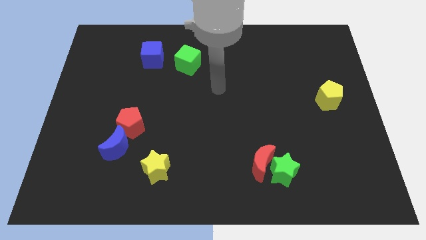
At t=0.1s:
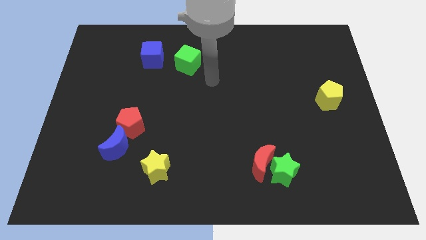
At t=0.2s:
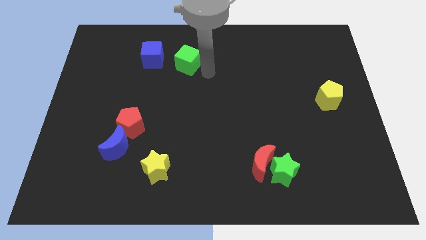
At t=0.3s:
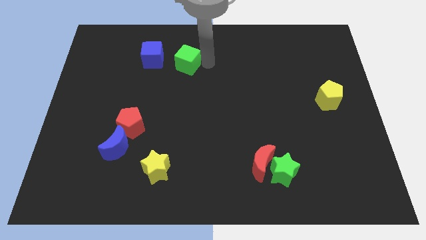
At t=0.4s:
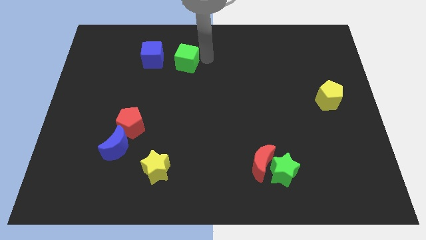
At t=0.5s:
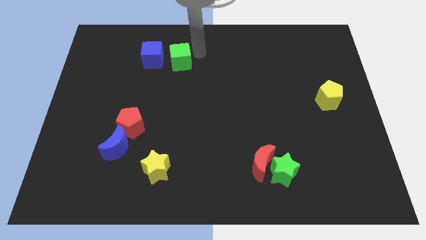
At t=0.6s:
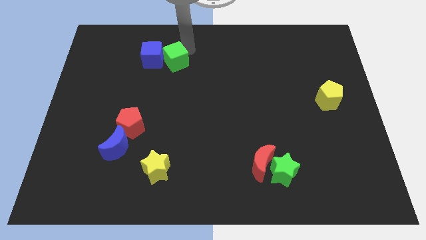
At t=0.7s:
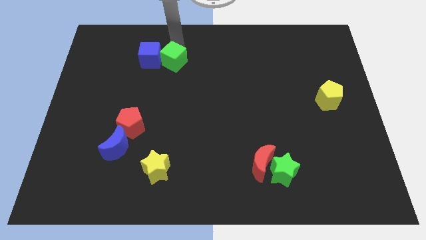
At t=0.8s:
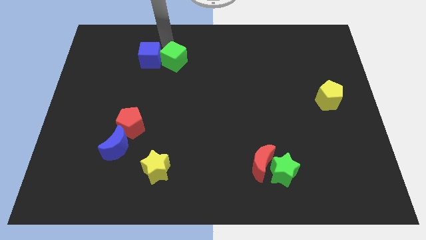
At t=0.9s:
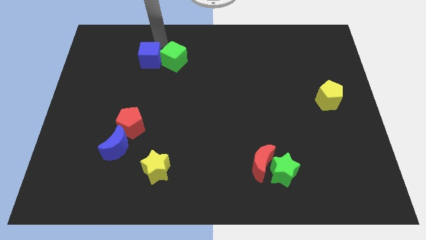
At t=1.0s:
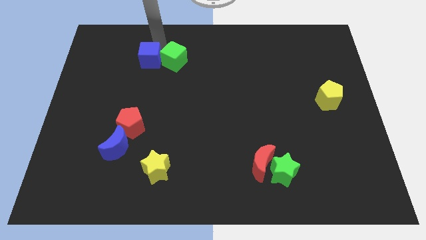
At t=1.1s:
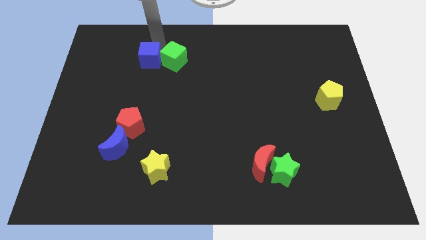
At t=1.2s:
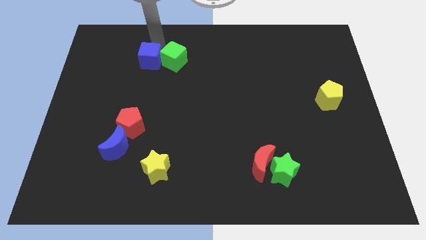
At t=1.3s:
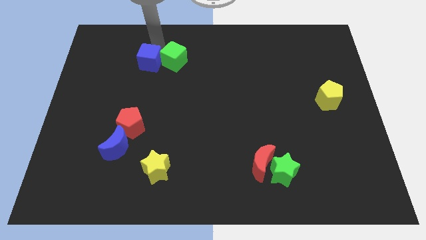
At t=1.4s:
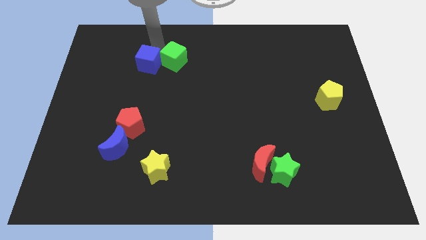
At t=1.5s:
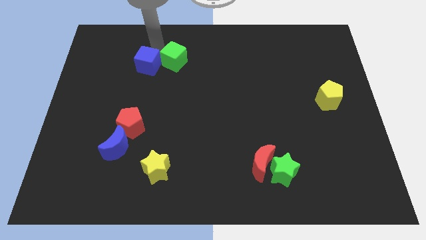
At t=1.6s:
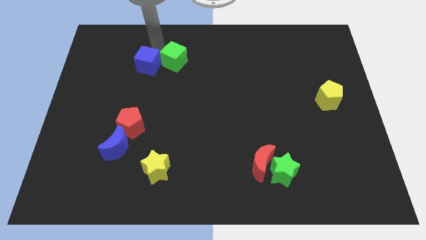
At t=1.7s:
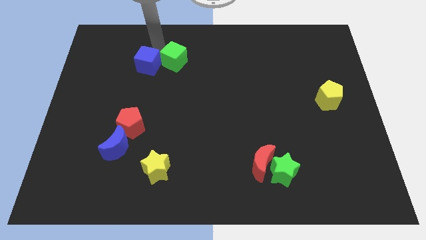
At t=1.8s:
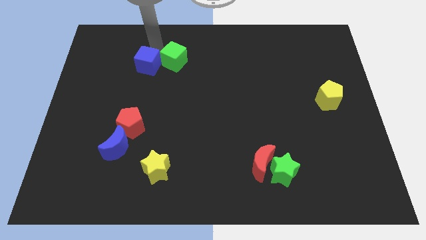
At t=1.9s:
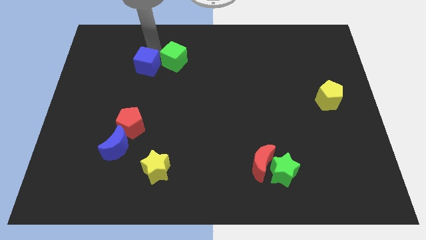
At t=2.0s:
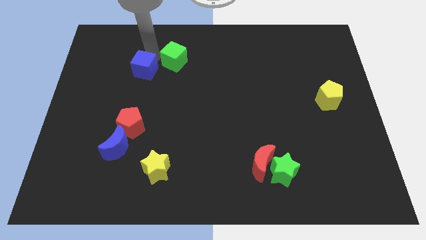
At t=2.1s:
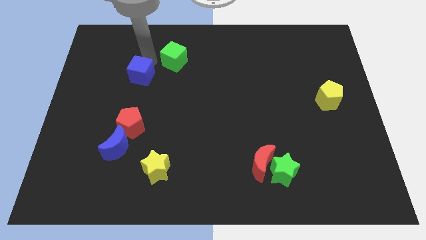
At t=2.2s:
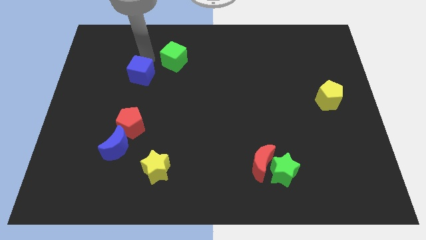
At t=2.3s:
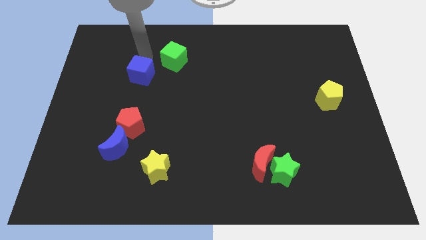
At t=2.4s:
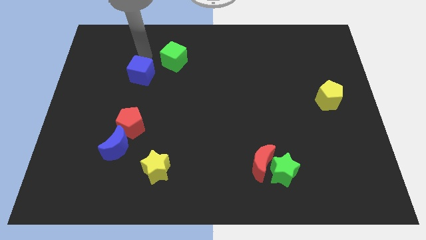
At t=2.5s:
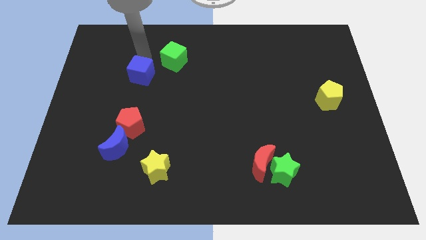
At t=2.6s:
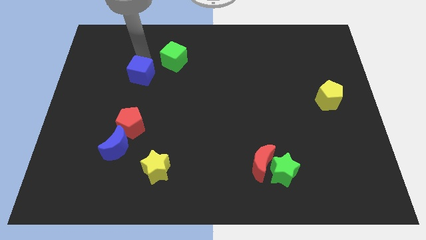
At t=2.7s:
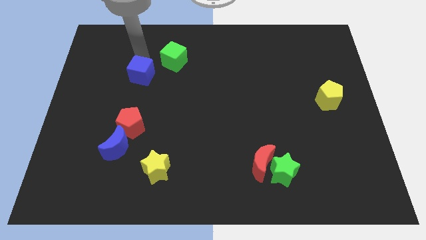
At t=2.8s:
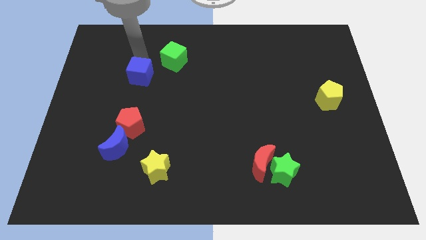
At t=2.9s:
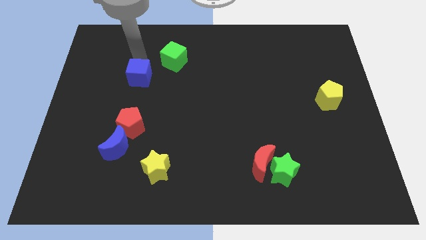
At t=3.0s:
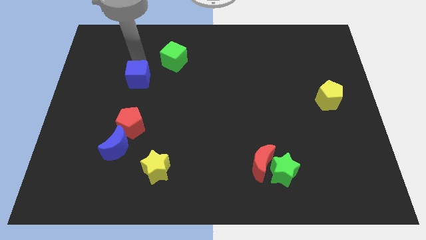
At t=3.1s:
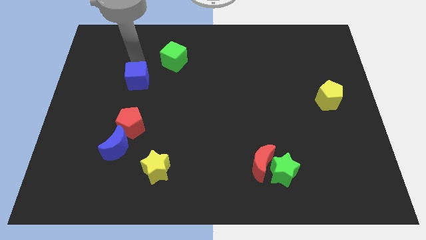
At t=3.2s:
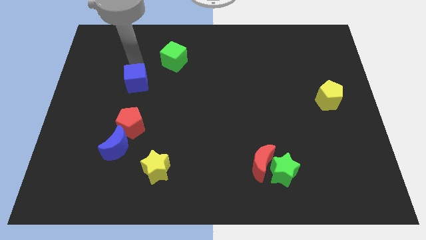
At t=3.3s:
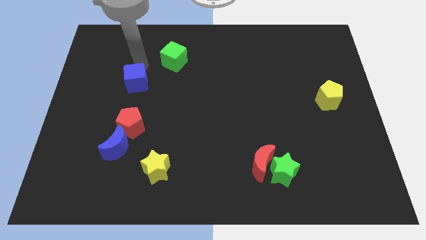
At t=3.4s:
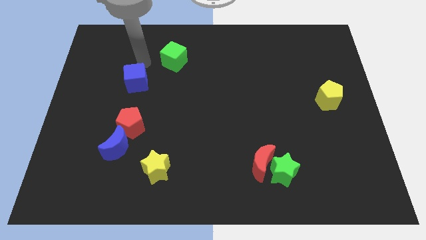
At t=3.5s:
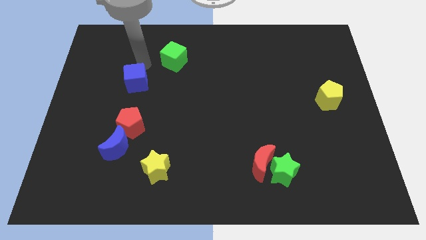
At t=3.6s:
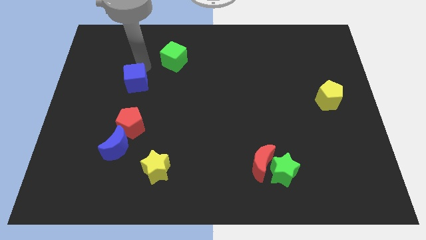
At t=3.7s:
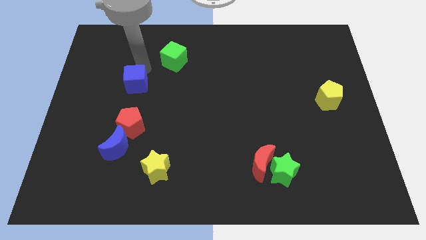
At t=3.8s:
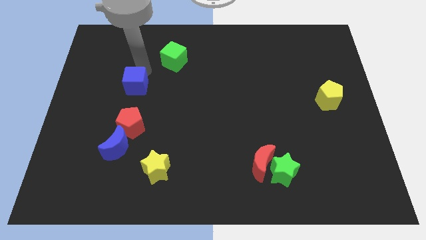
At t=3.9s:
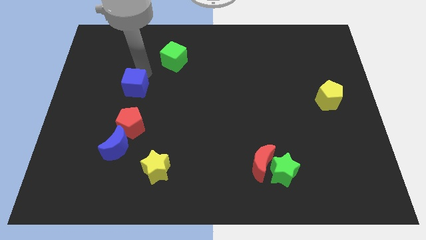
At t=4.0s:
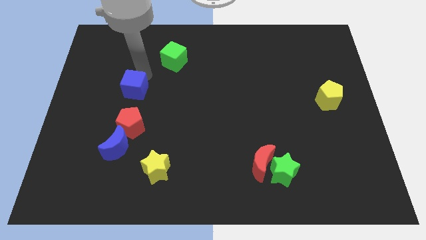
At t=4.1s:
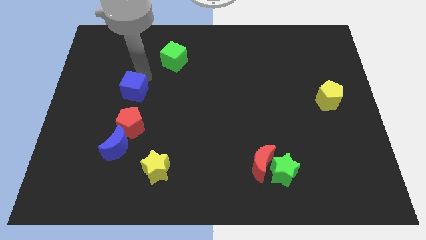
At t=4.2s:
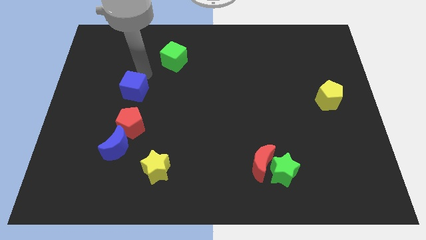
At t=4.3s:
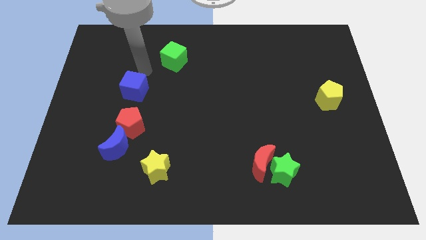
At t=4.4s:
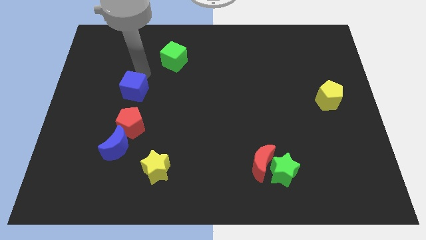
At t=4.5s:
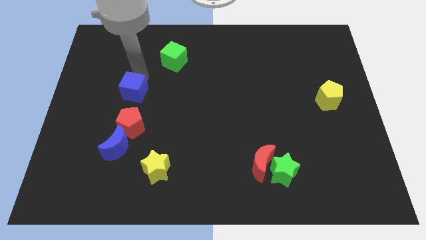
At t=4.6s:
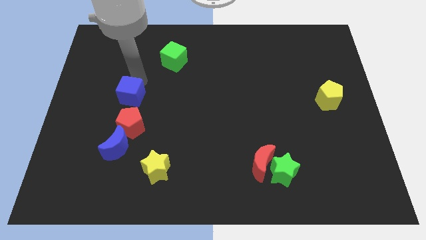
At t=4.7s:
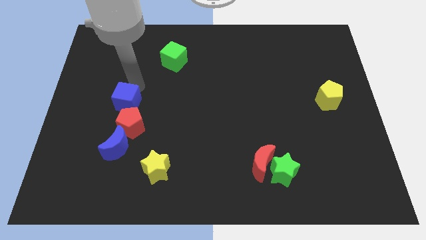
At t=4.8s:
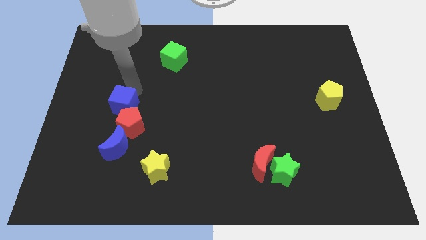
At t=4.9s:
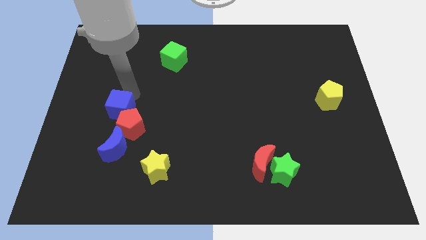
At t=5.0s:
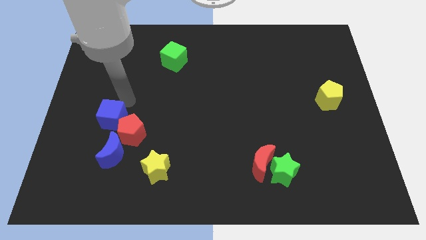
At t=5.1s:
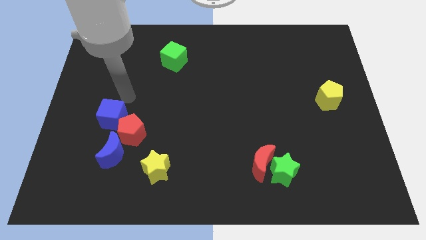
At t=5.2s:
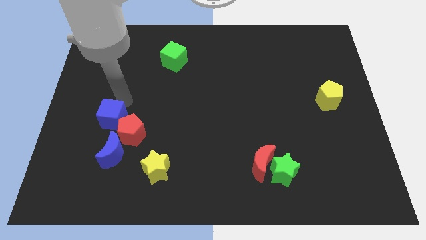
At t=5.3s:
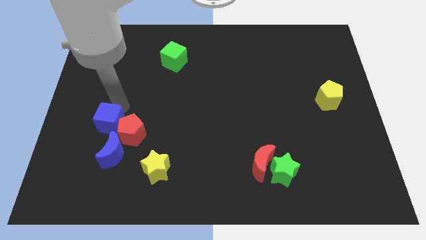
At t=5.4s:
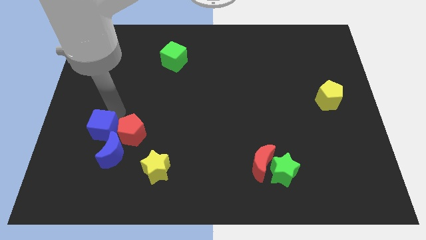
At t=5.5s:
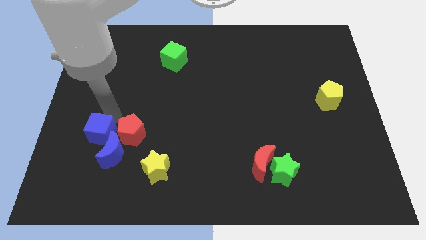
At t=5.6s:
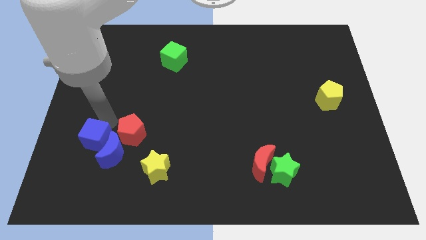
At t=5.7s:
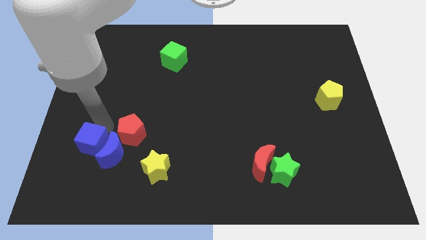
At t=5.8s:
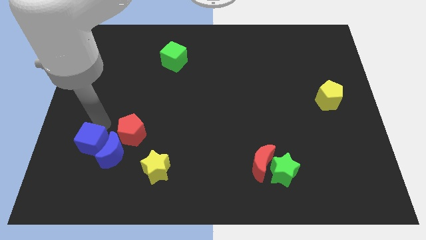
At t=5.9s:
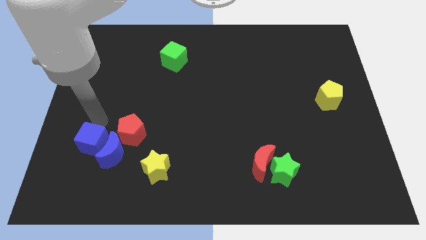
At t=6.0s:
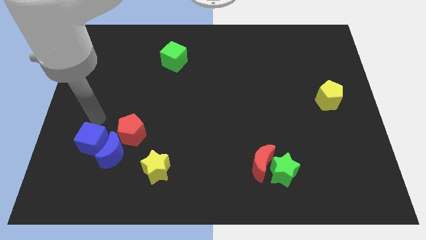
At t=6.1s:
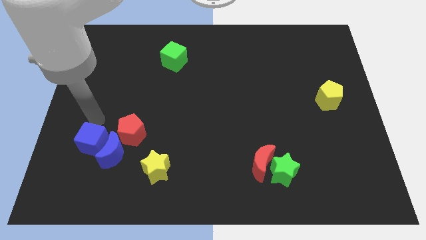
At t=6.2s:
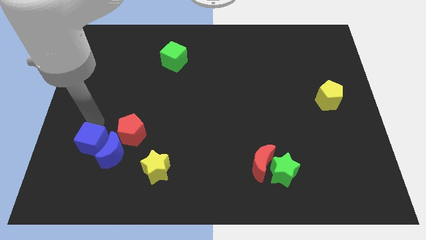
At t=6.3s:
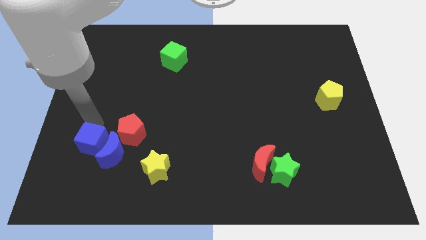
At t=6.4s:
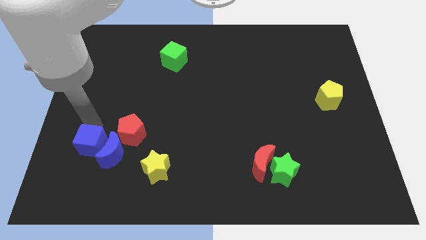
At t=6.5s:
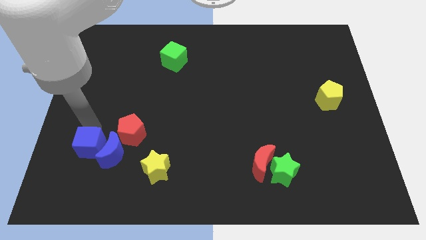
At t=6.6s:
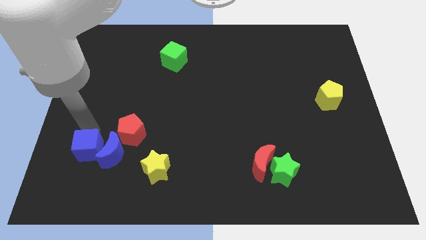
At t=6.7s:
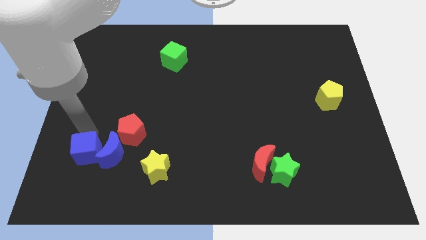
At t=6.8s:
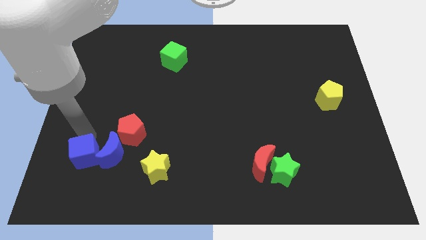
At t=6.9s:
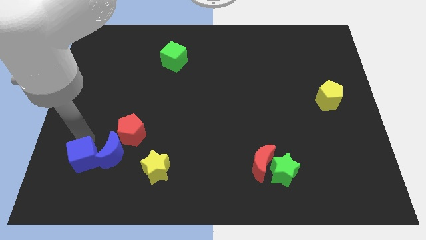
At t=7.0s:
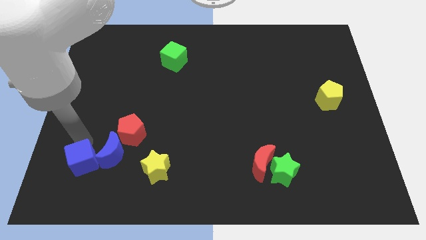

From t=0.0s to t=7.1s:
put the blue cube to the left of the yellow star
